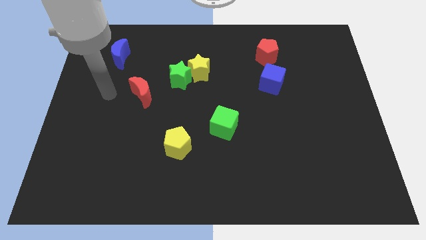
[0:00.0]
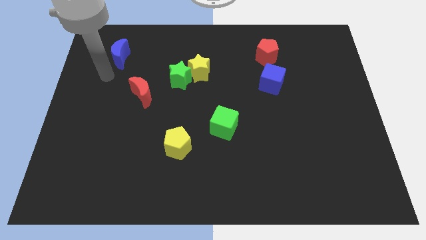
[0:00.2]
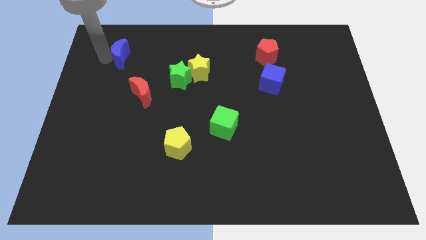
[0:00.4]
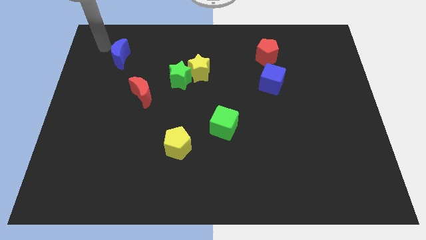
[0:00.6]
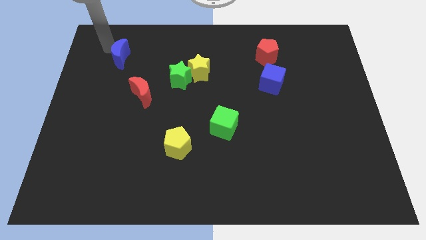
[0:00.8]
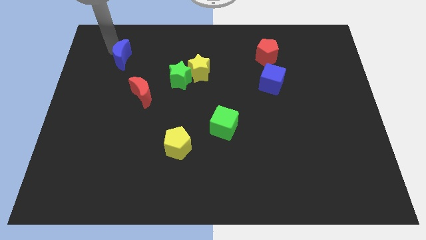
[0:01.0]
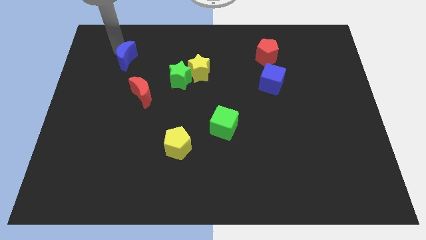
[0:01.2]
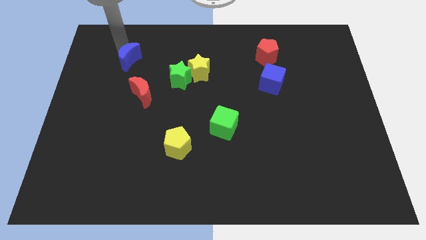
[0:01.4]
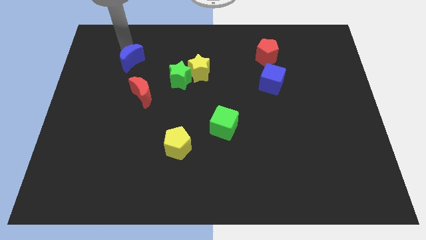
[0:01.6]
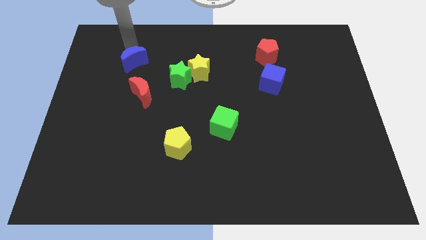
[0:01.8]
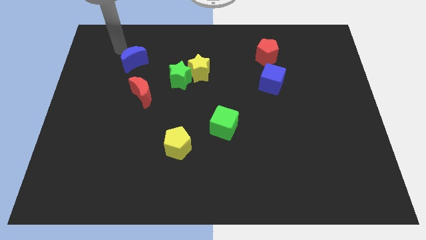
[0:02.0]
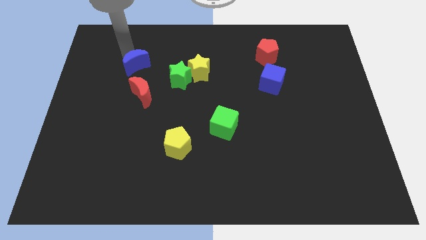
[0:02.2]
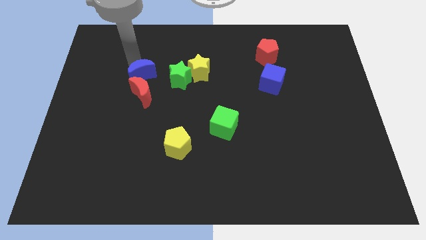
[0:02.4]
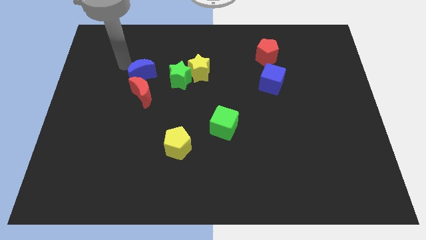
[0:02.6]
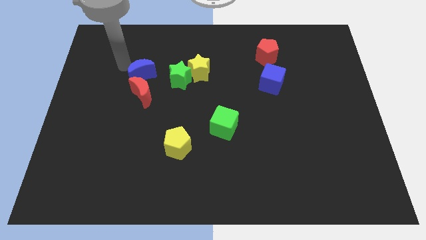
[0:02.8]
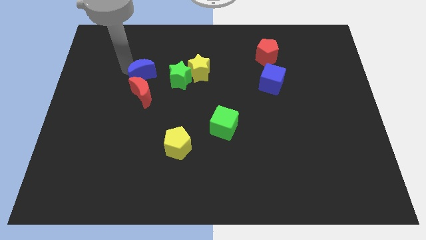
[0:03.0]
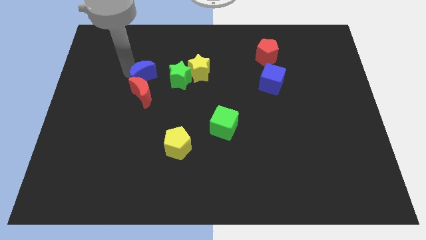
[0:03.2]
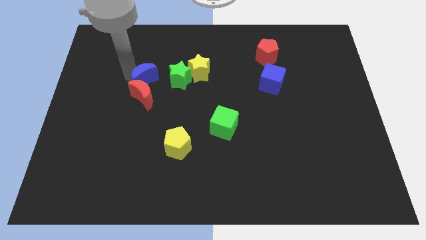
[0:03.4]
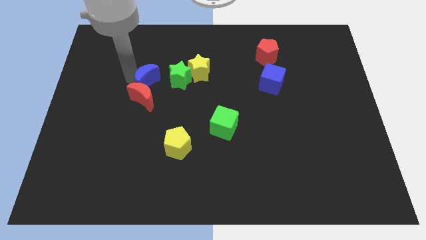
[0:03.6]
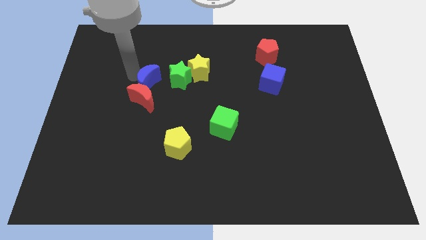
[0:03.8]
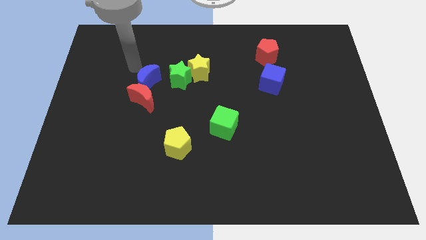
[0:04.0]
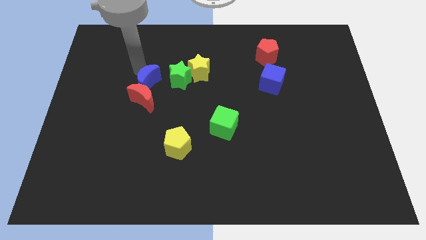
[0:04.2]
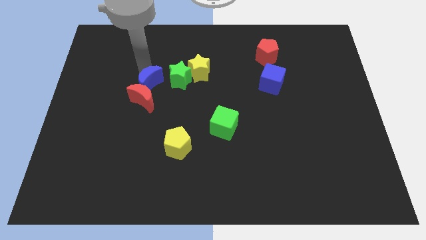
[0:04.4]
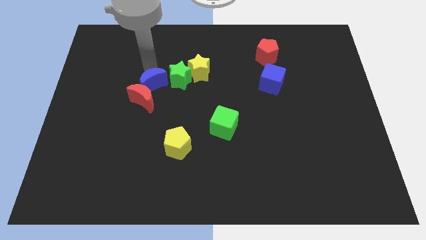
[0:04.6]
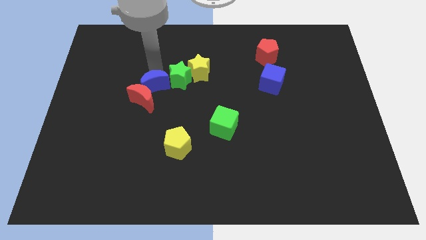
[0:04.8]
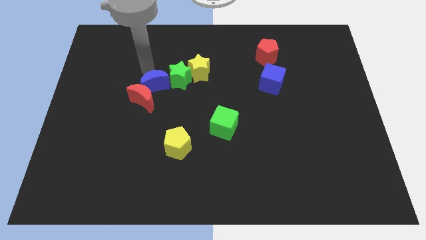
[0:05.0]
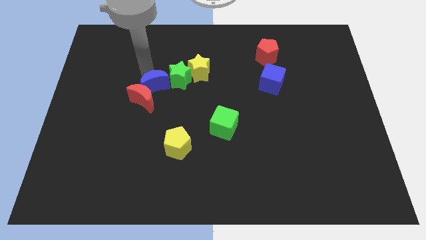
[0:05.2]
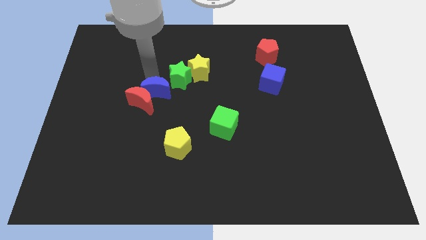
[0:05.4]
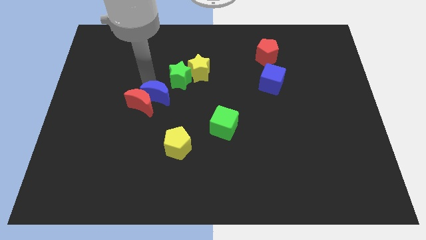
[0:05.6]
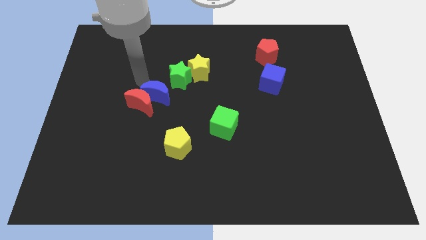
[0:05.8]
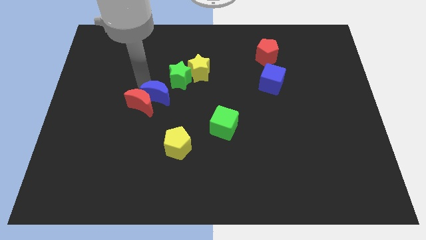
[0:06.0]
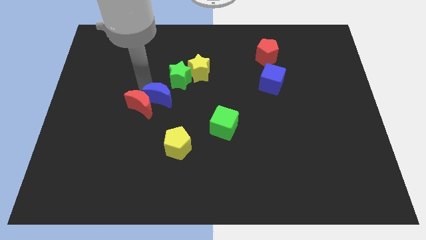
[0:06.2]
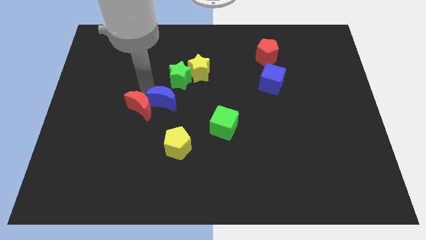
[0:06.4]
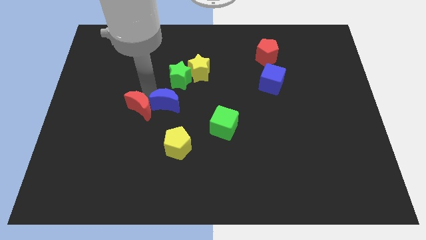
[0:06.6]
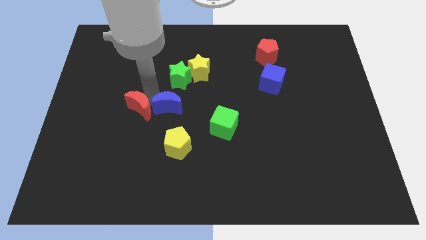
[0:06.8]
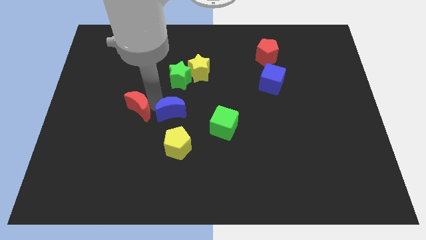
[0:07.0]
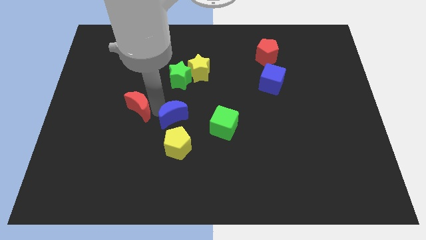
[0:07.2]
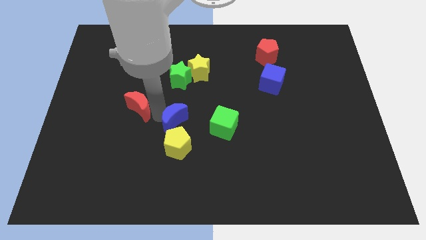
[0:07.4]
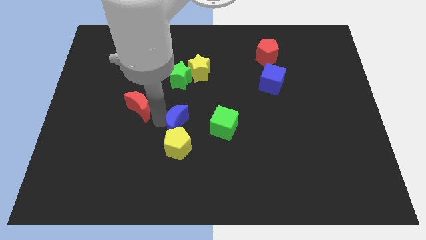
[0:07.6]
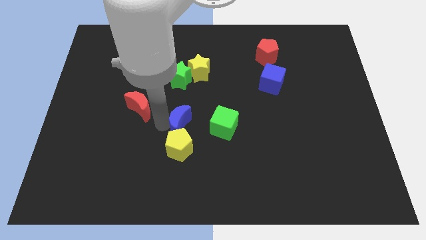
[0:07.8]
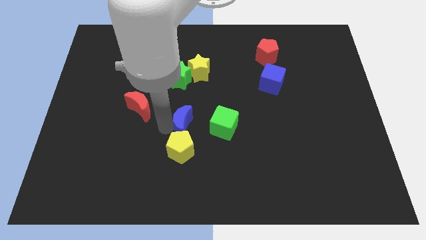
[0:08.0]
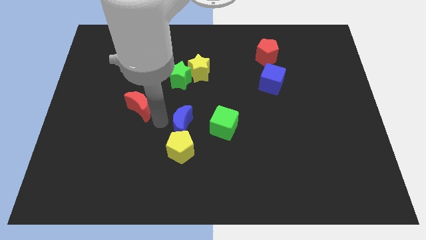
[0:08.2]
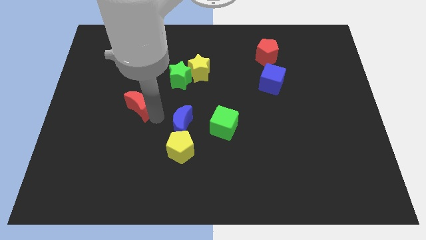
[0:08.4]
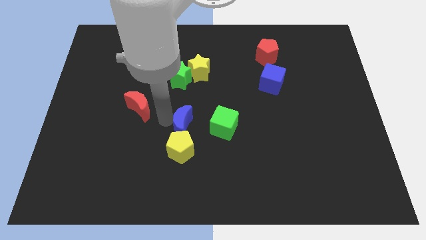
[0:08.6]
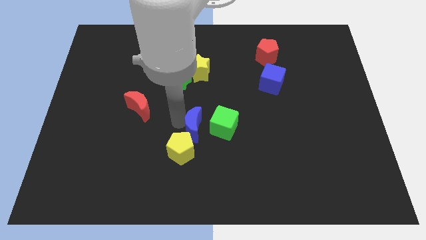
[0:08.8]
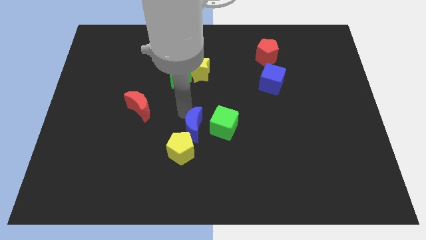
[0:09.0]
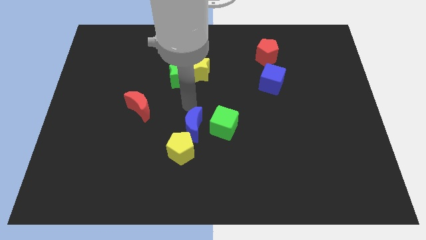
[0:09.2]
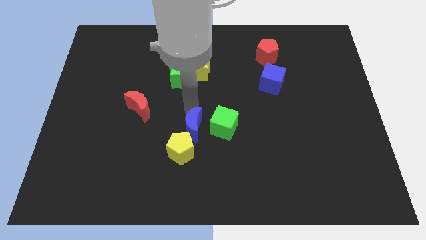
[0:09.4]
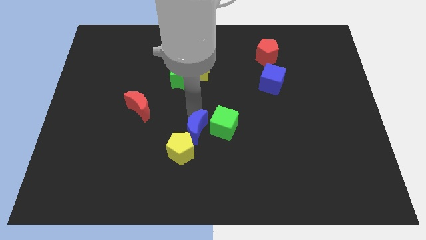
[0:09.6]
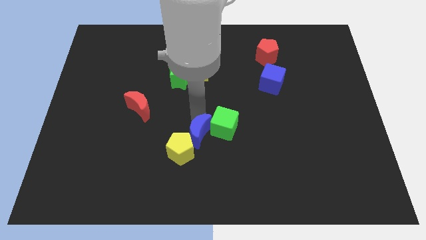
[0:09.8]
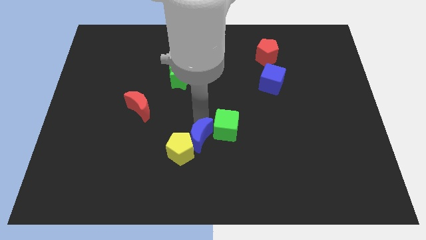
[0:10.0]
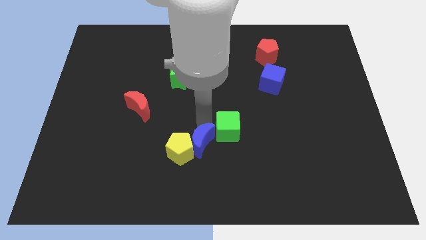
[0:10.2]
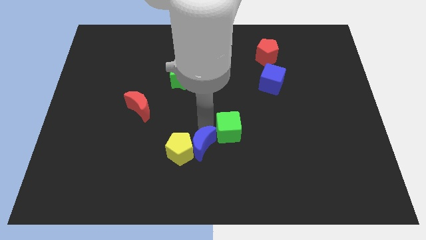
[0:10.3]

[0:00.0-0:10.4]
slide the blue moon to the bottom right side of the yellow pentagon

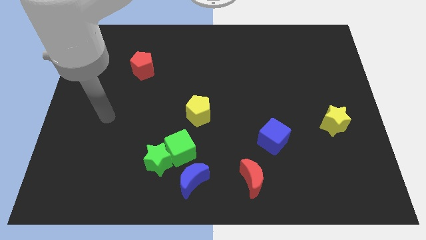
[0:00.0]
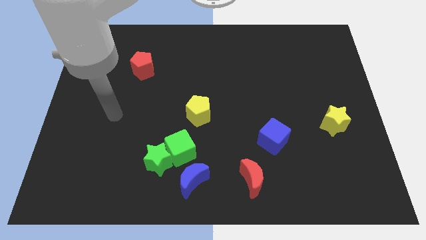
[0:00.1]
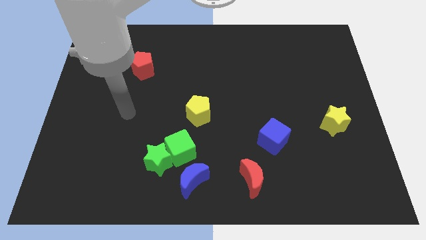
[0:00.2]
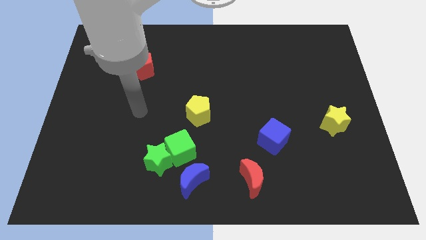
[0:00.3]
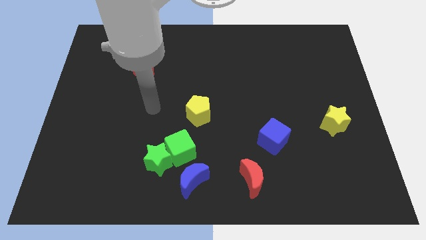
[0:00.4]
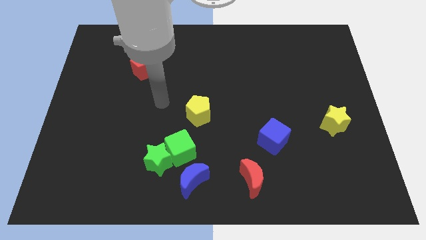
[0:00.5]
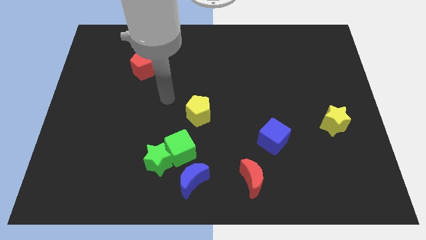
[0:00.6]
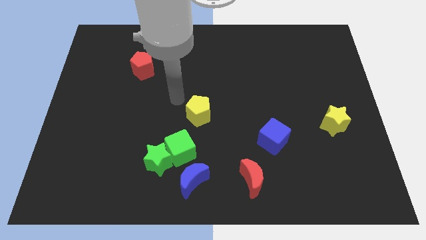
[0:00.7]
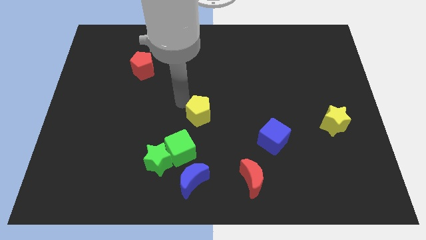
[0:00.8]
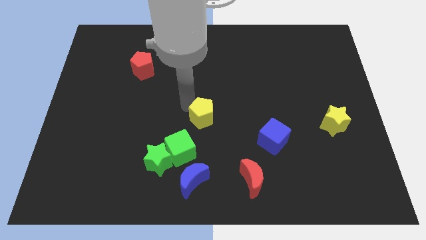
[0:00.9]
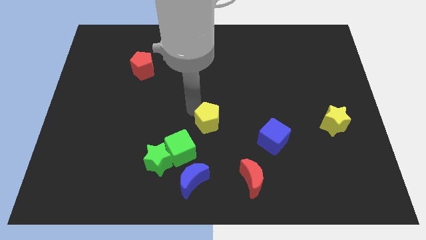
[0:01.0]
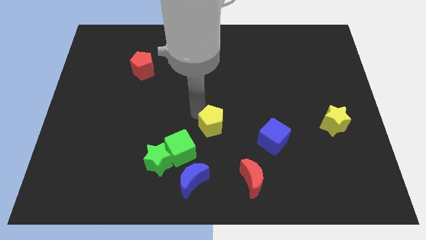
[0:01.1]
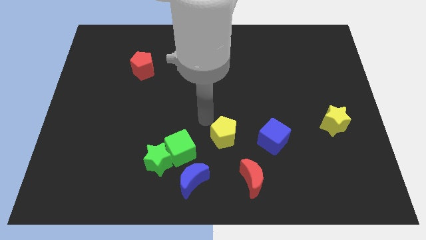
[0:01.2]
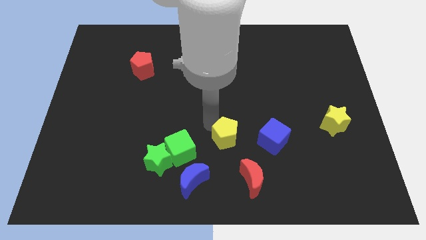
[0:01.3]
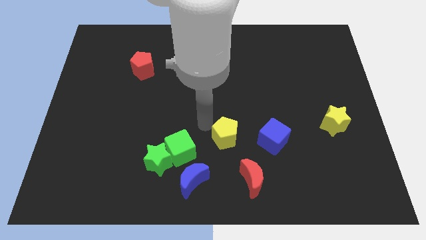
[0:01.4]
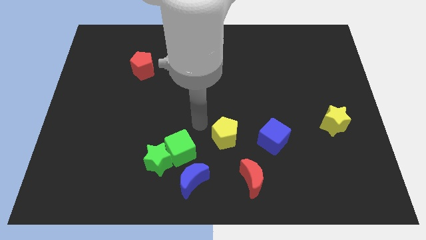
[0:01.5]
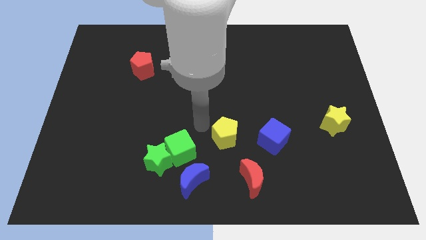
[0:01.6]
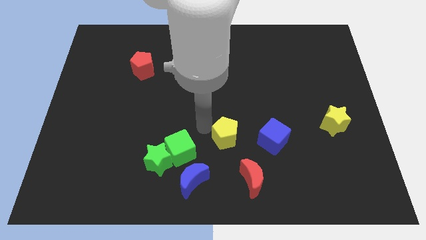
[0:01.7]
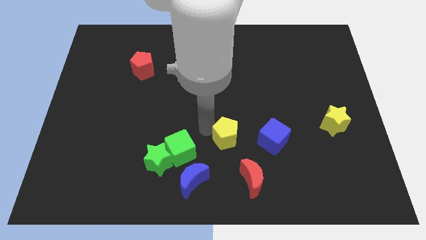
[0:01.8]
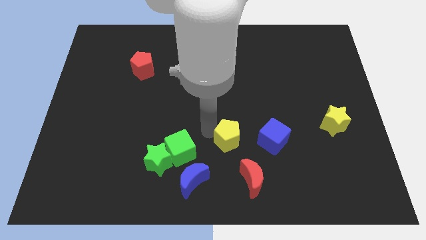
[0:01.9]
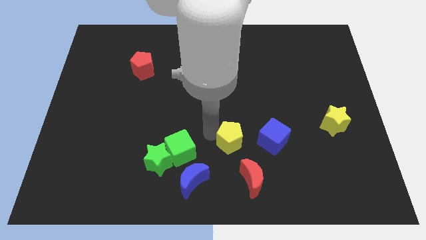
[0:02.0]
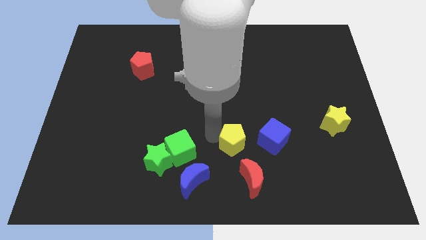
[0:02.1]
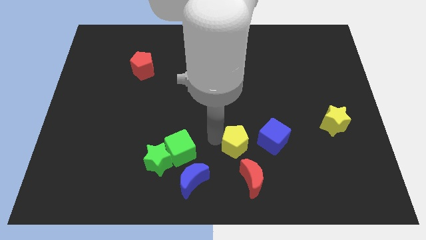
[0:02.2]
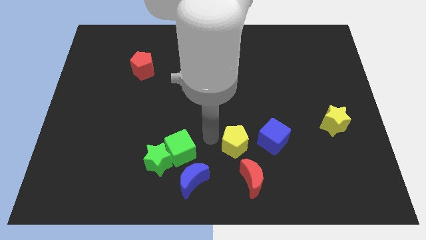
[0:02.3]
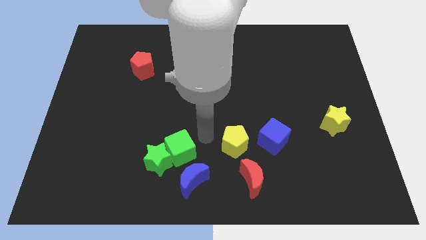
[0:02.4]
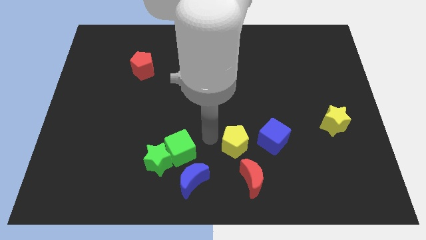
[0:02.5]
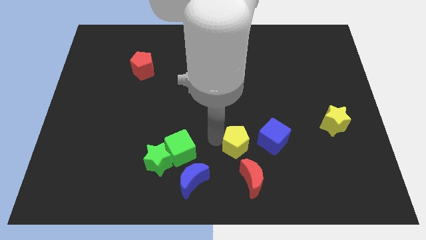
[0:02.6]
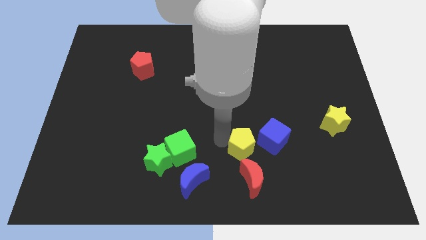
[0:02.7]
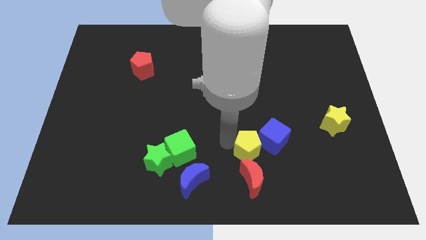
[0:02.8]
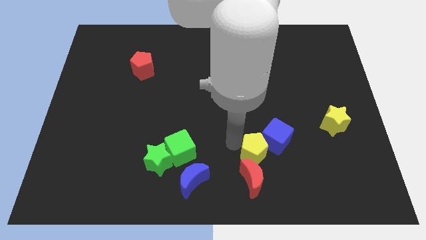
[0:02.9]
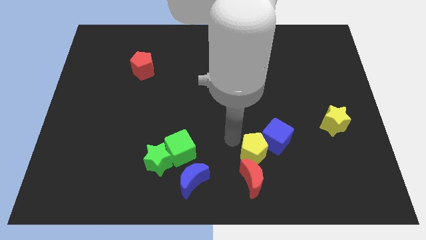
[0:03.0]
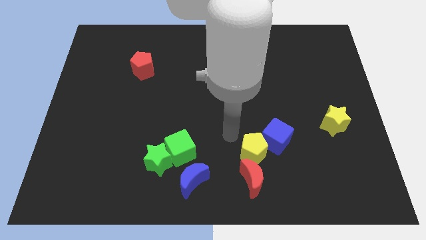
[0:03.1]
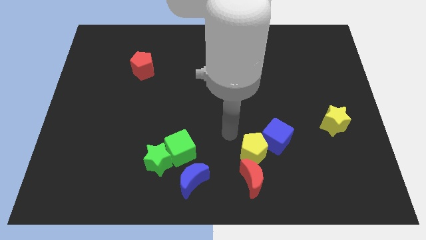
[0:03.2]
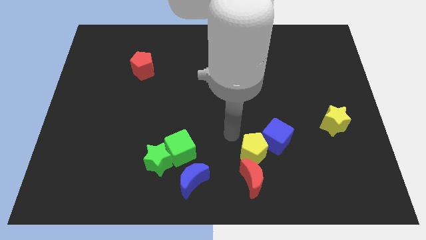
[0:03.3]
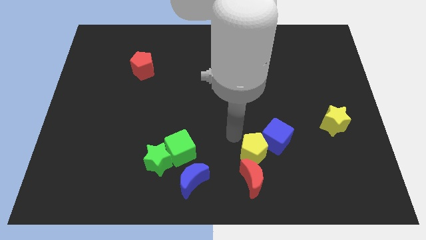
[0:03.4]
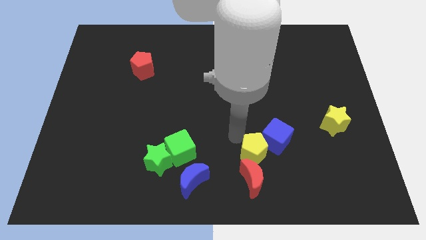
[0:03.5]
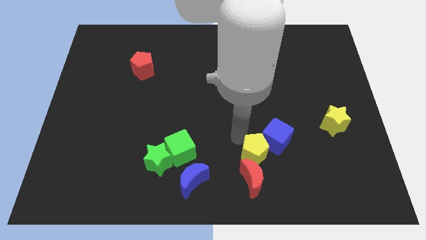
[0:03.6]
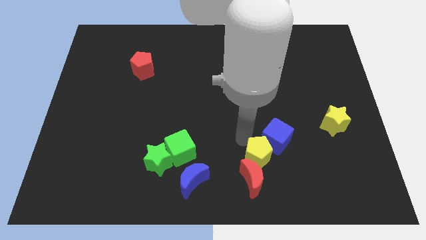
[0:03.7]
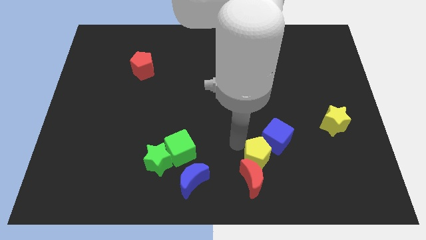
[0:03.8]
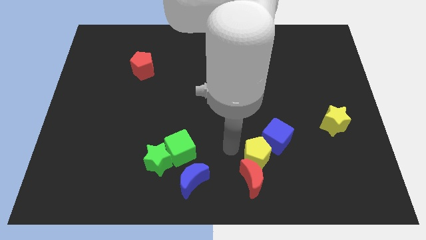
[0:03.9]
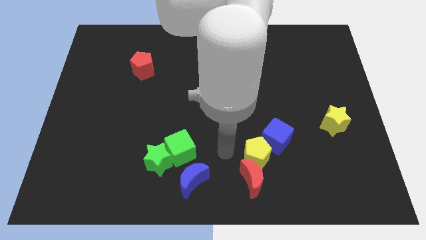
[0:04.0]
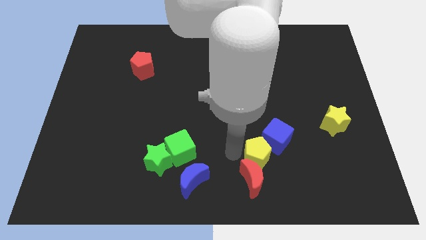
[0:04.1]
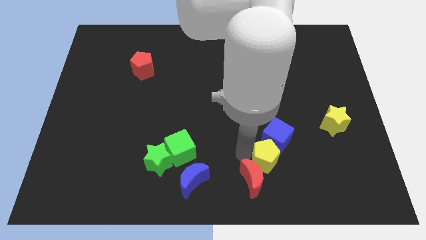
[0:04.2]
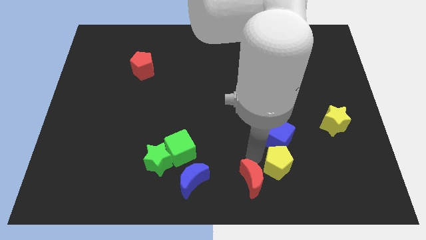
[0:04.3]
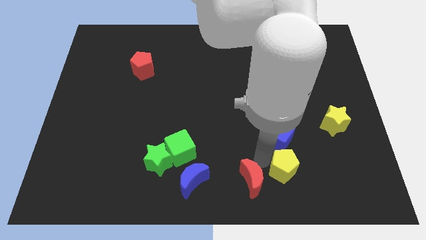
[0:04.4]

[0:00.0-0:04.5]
push the yellow pentagon to the bottom right side of the blue cube
